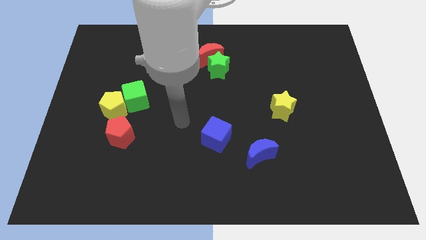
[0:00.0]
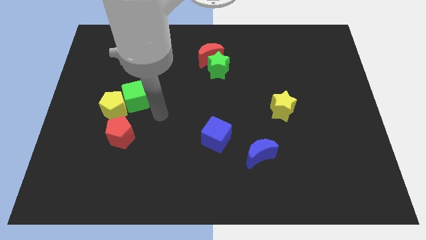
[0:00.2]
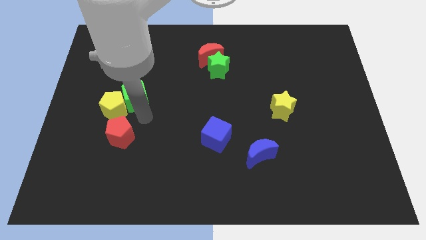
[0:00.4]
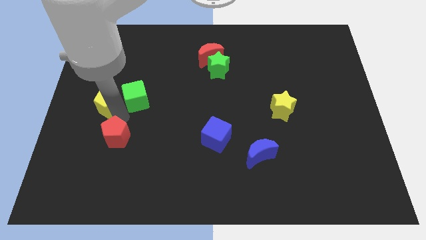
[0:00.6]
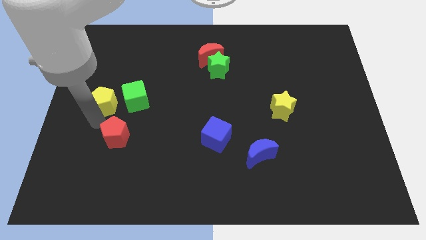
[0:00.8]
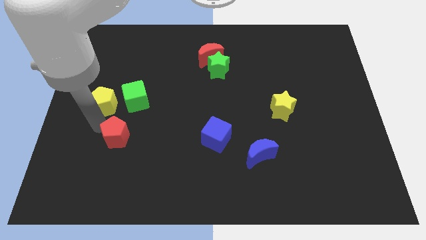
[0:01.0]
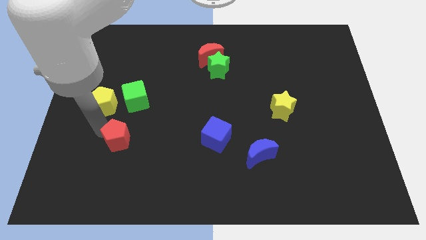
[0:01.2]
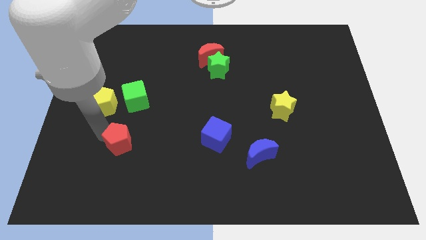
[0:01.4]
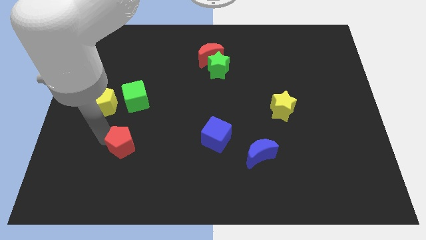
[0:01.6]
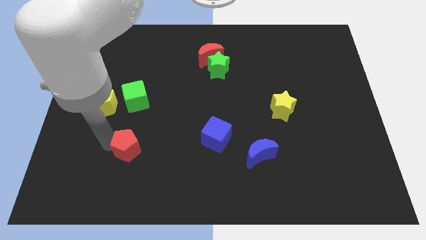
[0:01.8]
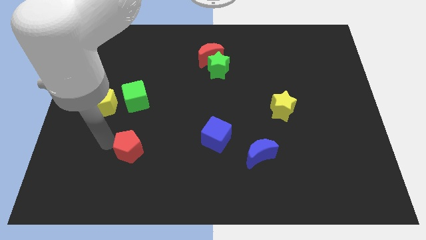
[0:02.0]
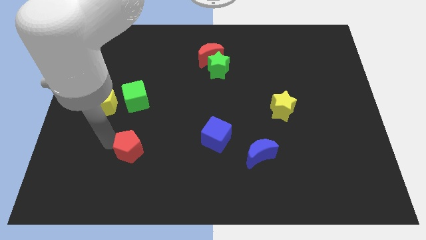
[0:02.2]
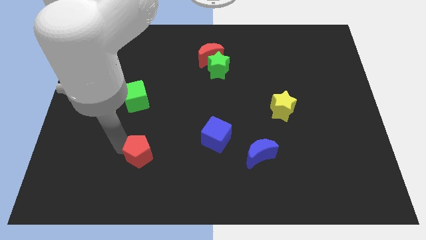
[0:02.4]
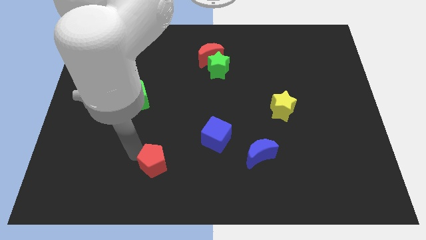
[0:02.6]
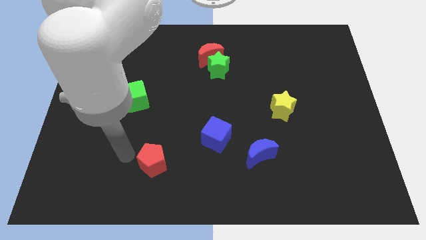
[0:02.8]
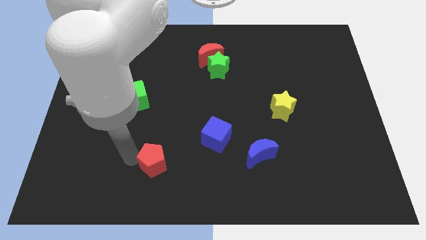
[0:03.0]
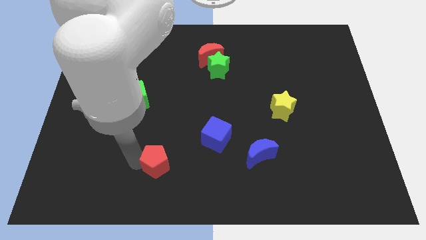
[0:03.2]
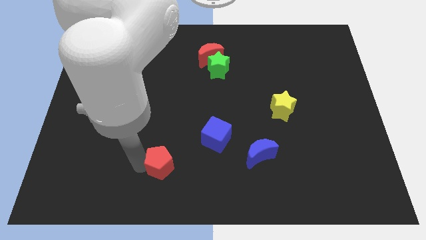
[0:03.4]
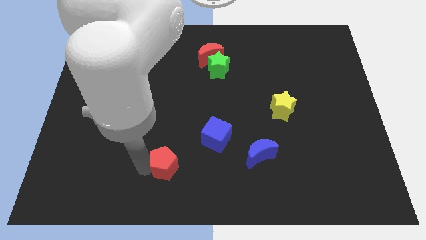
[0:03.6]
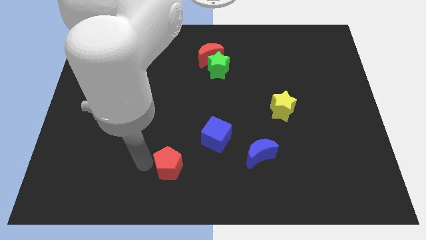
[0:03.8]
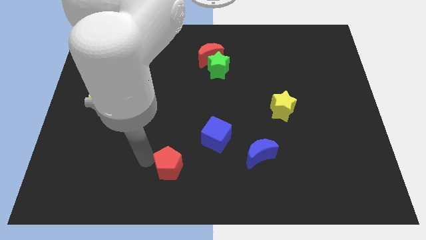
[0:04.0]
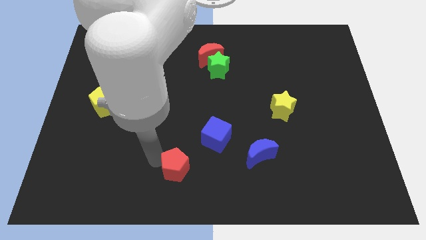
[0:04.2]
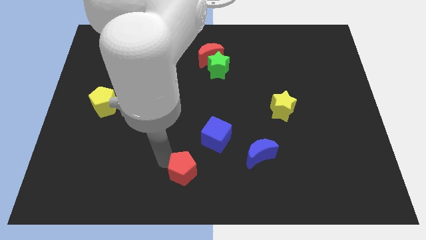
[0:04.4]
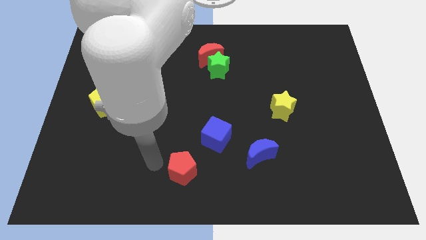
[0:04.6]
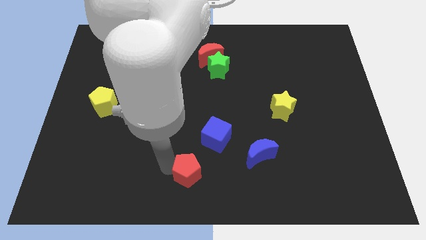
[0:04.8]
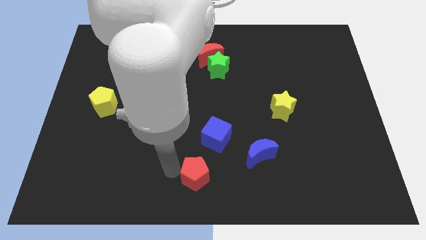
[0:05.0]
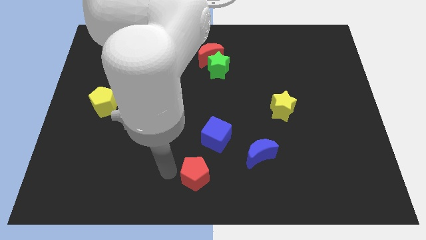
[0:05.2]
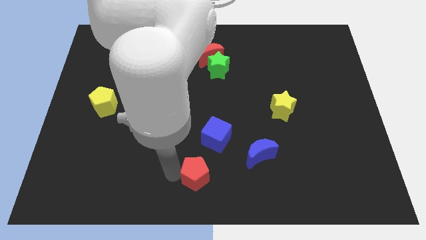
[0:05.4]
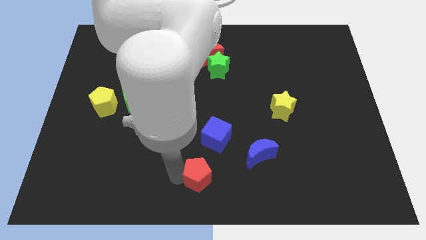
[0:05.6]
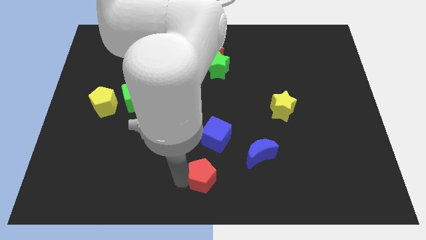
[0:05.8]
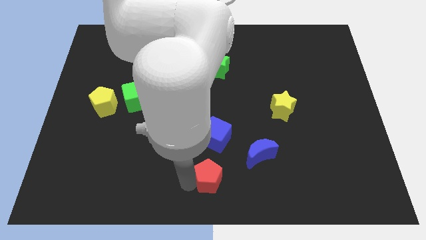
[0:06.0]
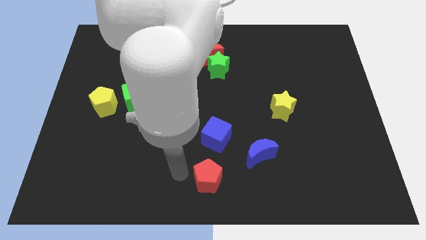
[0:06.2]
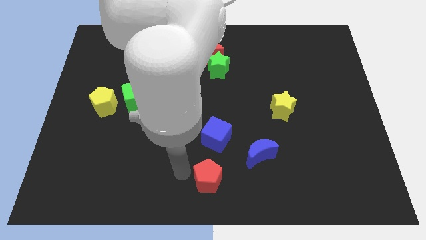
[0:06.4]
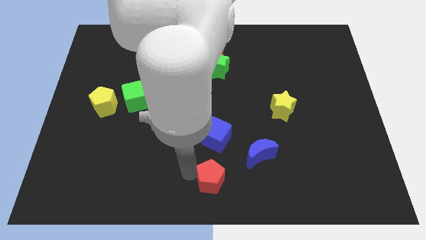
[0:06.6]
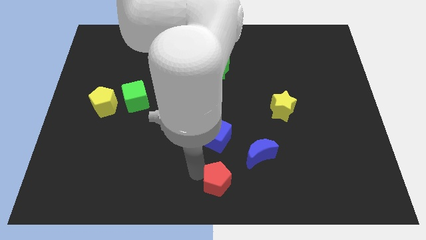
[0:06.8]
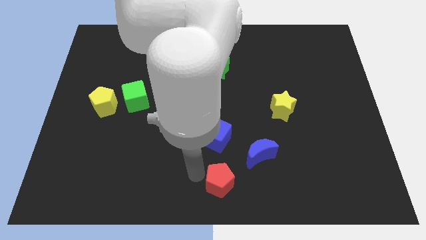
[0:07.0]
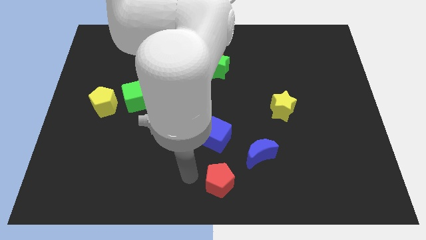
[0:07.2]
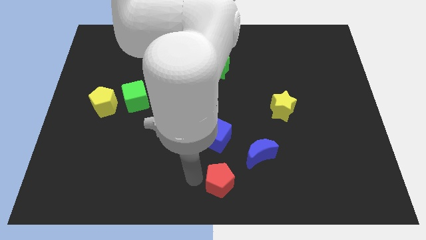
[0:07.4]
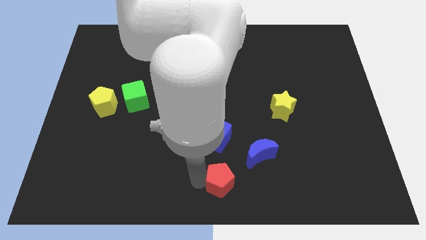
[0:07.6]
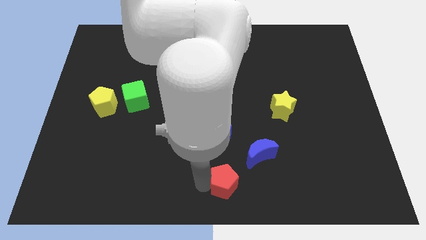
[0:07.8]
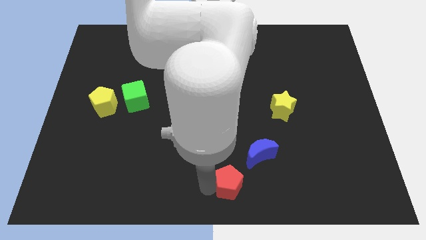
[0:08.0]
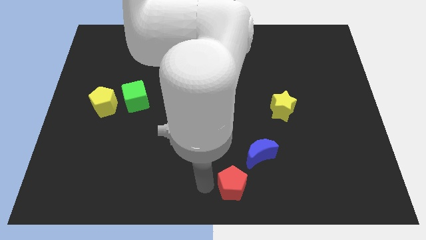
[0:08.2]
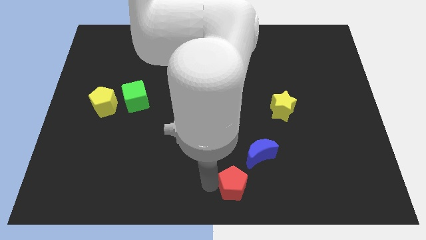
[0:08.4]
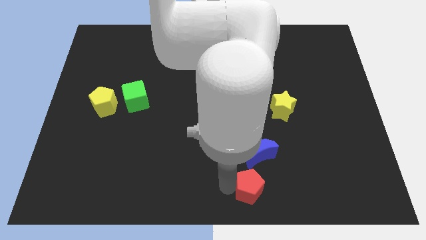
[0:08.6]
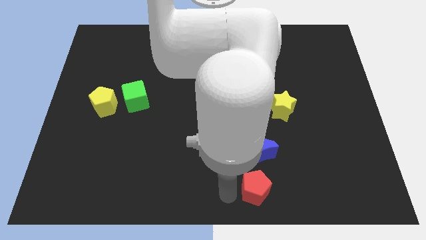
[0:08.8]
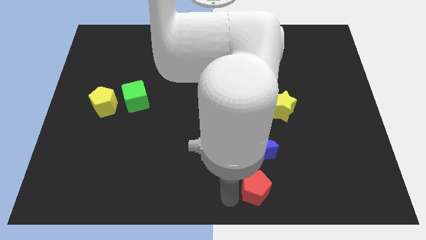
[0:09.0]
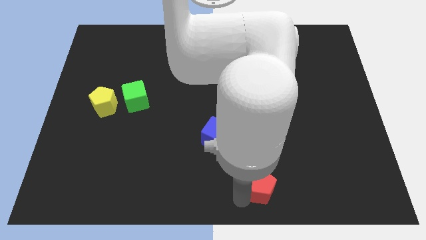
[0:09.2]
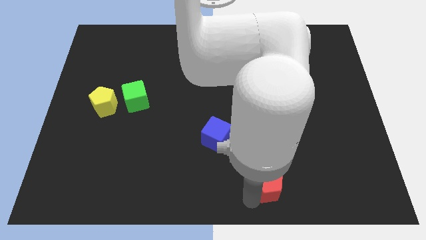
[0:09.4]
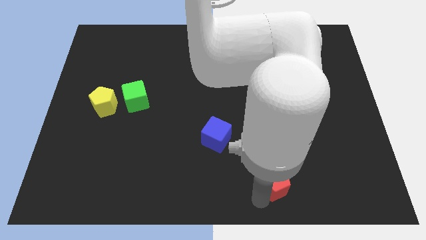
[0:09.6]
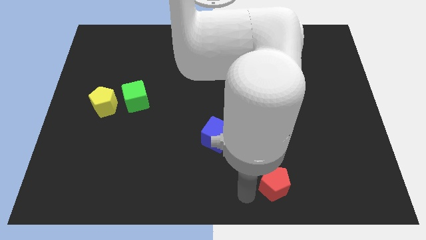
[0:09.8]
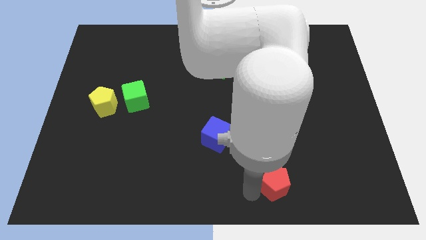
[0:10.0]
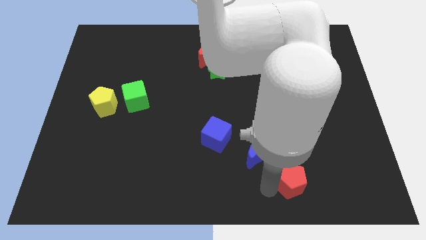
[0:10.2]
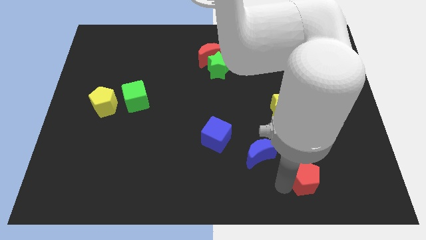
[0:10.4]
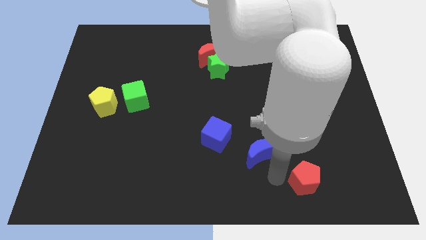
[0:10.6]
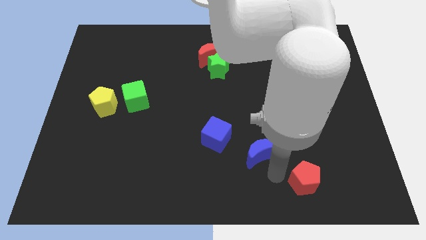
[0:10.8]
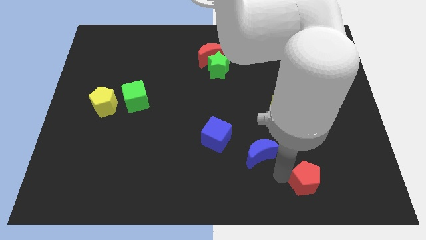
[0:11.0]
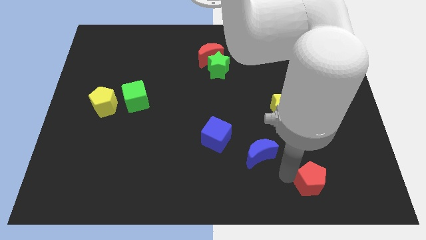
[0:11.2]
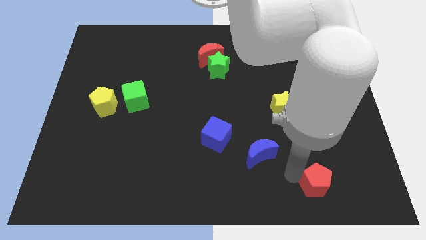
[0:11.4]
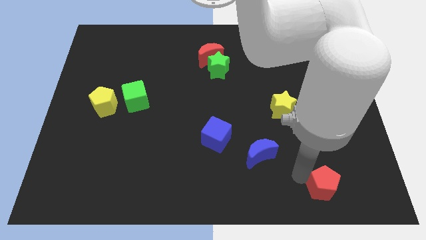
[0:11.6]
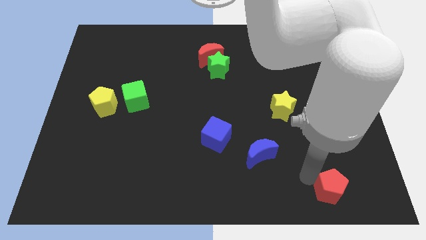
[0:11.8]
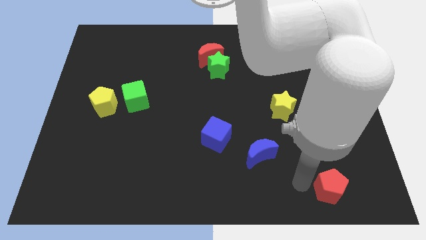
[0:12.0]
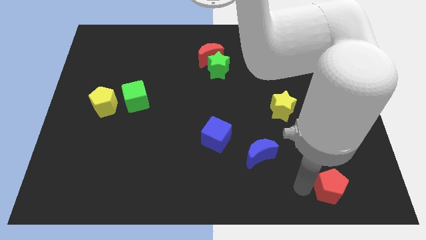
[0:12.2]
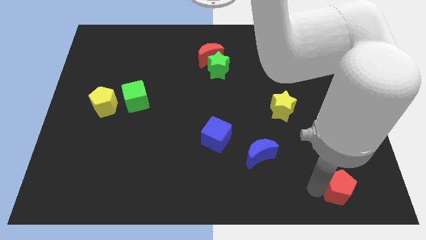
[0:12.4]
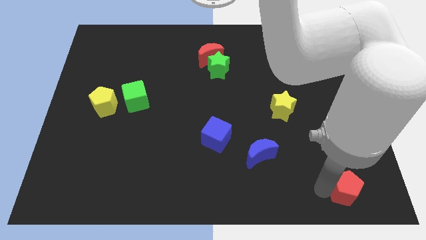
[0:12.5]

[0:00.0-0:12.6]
move the red pentagon to the bottom right of the board
